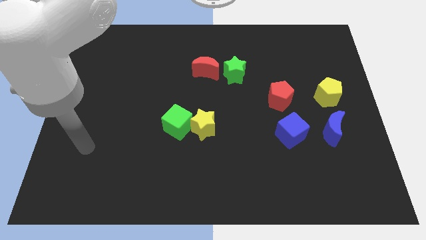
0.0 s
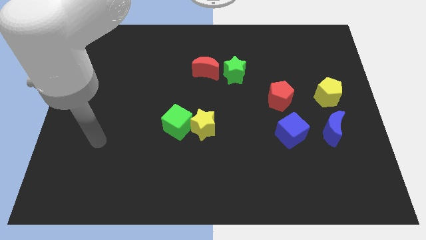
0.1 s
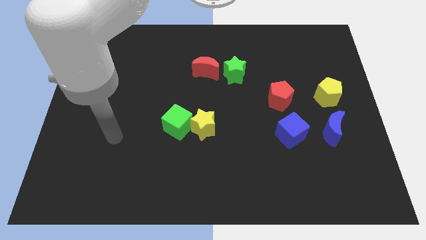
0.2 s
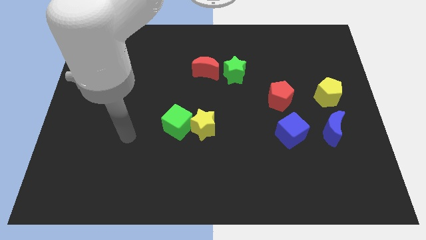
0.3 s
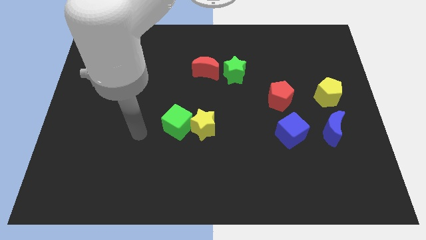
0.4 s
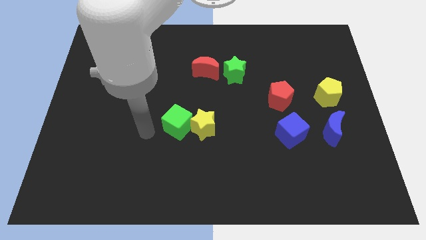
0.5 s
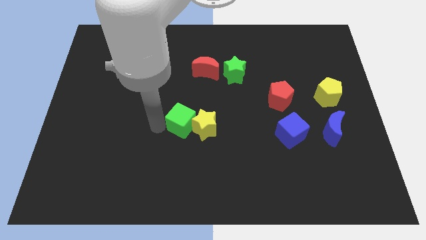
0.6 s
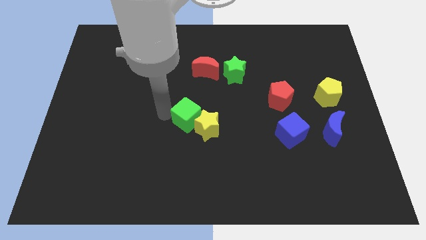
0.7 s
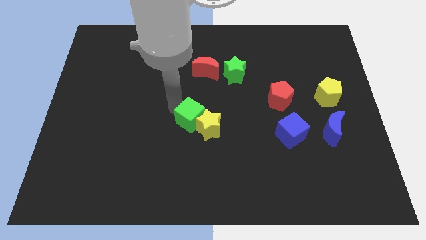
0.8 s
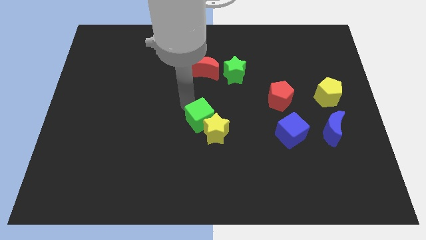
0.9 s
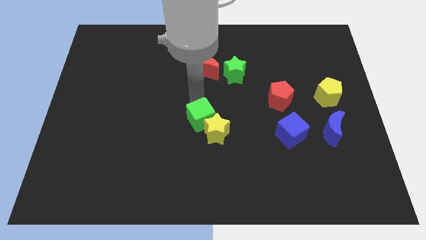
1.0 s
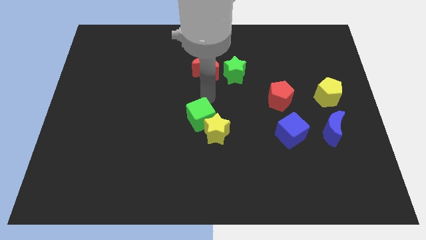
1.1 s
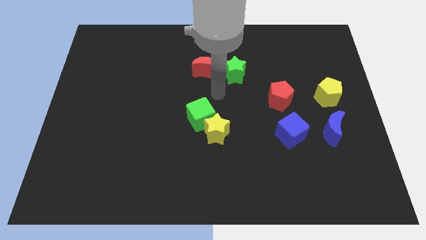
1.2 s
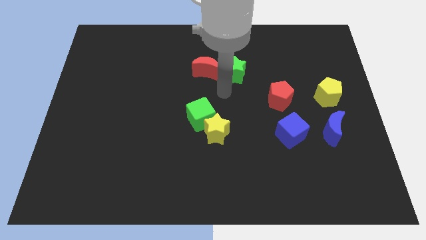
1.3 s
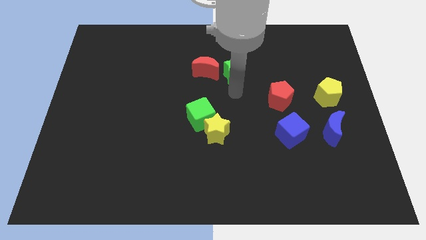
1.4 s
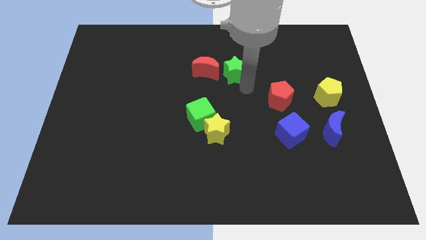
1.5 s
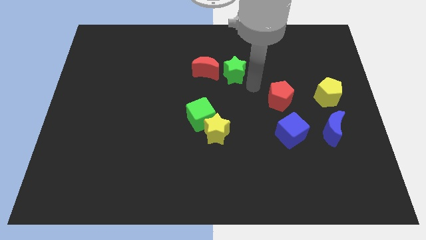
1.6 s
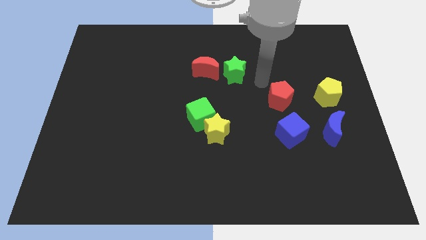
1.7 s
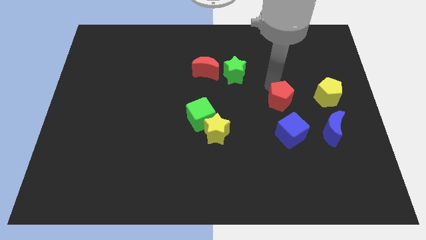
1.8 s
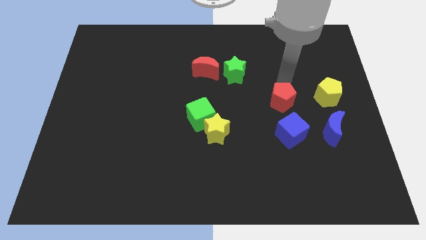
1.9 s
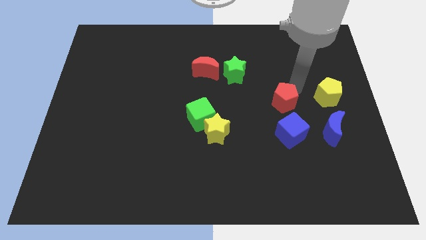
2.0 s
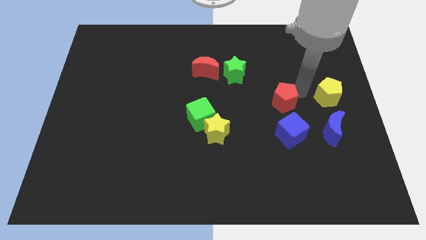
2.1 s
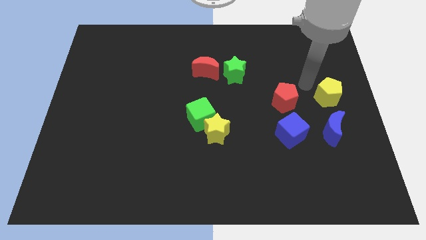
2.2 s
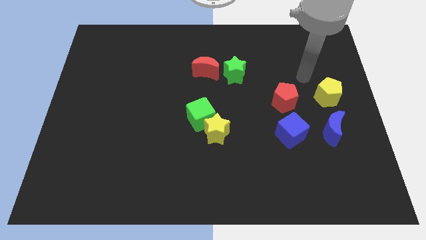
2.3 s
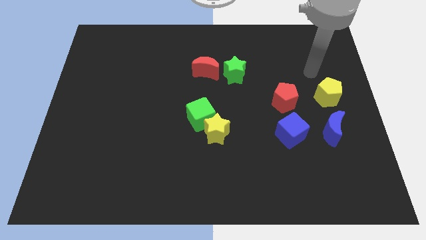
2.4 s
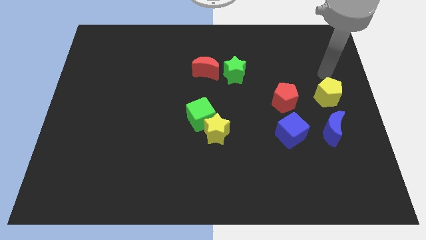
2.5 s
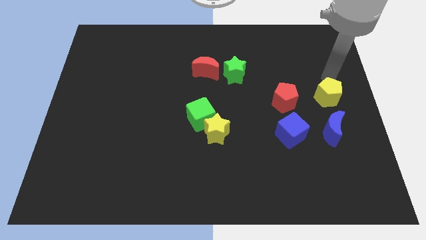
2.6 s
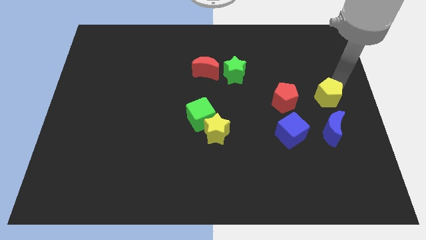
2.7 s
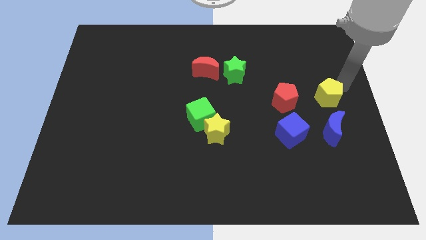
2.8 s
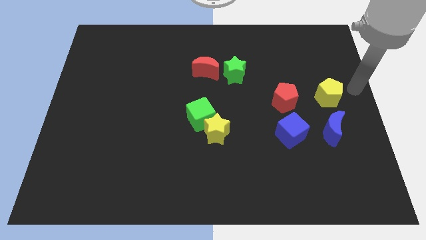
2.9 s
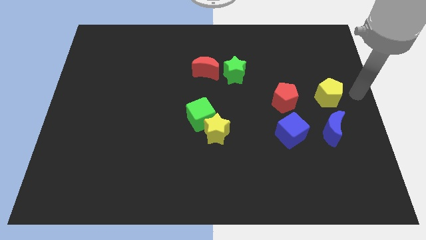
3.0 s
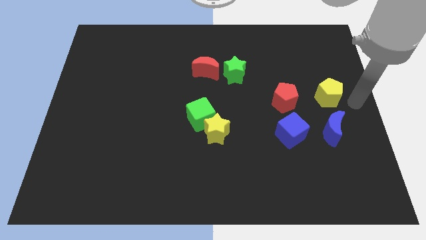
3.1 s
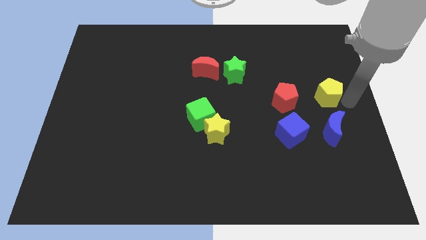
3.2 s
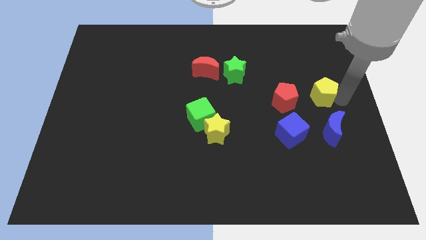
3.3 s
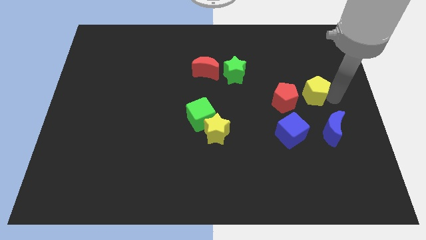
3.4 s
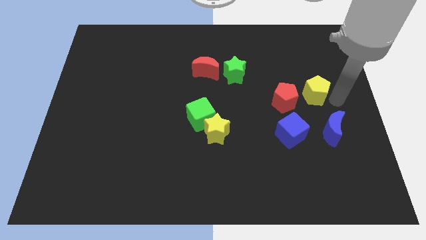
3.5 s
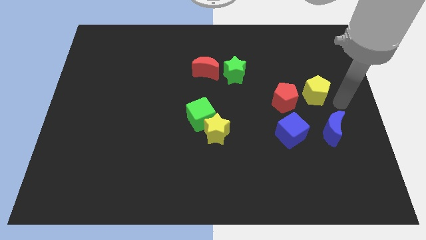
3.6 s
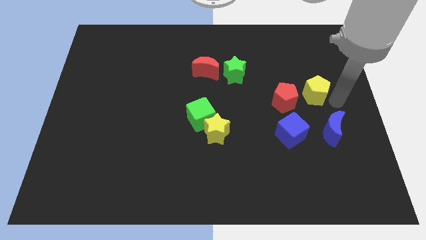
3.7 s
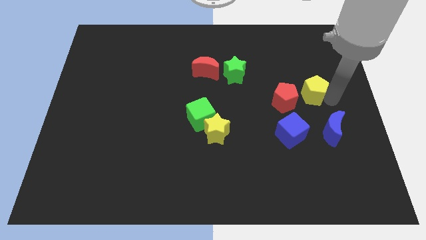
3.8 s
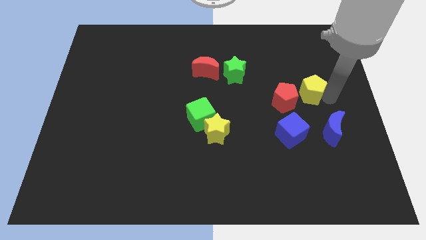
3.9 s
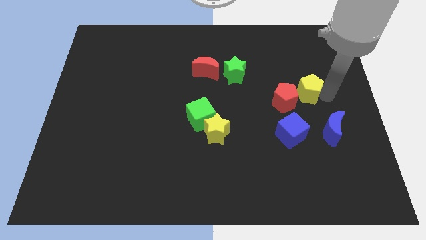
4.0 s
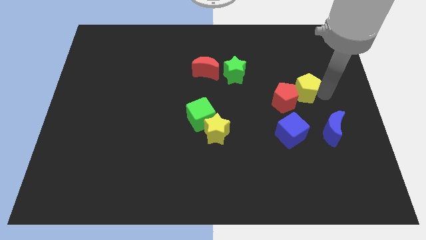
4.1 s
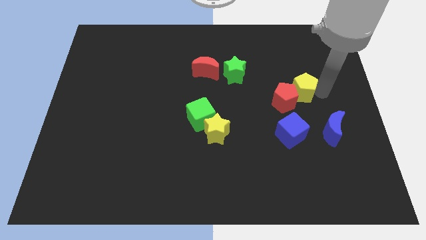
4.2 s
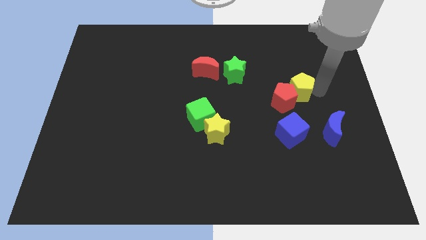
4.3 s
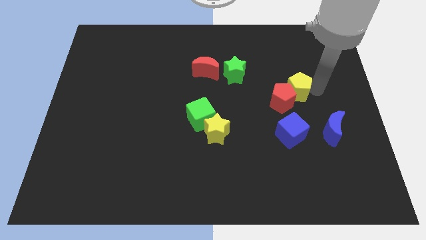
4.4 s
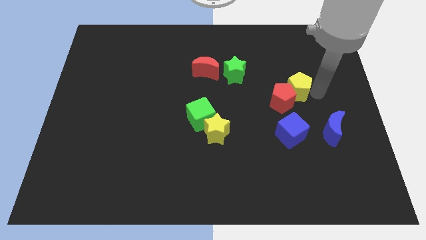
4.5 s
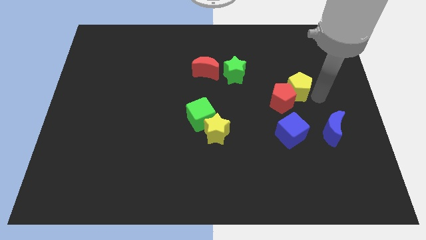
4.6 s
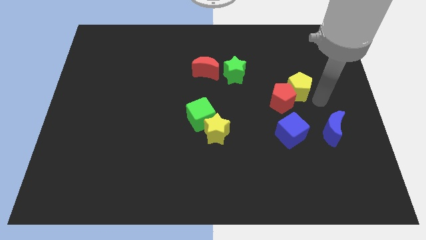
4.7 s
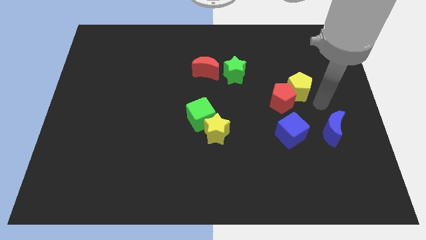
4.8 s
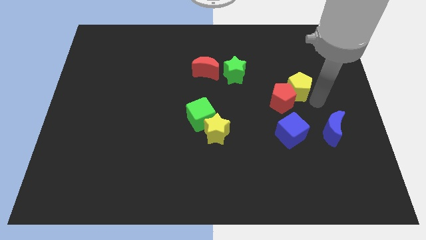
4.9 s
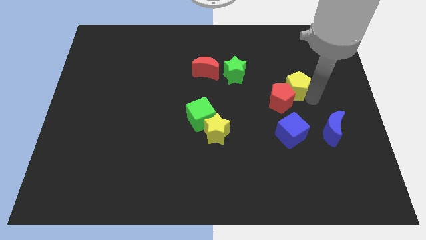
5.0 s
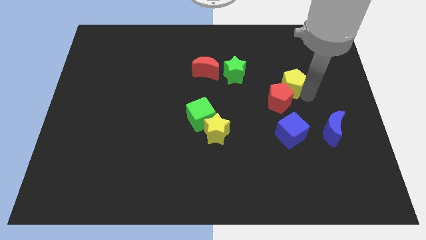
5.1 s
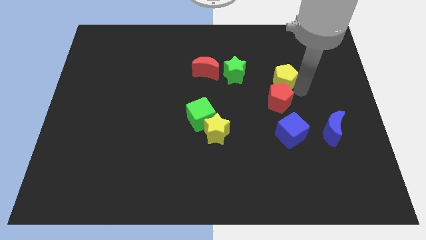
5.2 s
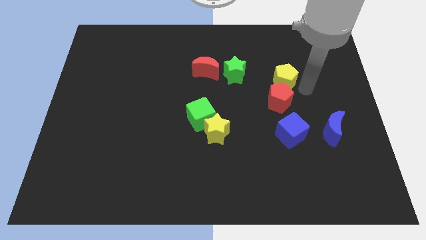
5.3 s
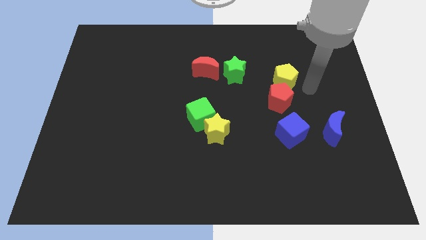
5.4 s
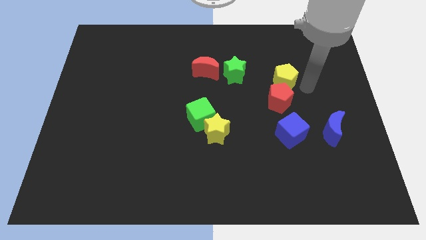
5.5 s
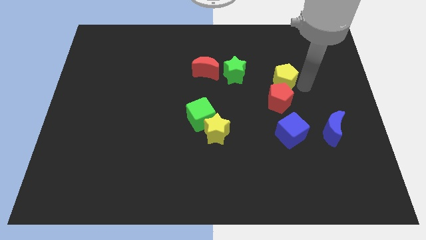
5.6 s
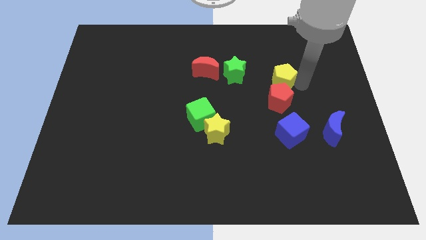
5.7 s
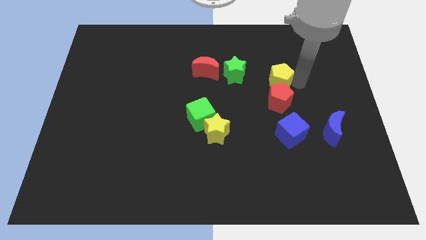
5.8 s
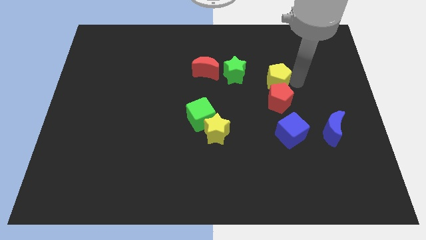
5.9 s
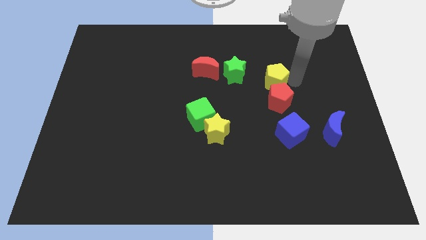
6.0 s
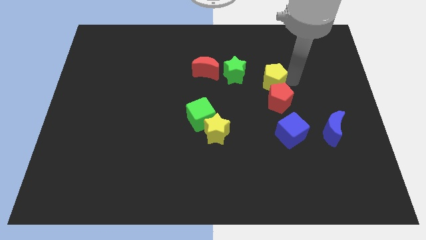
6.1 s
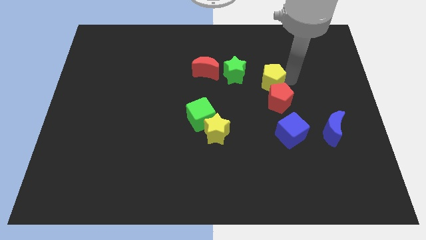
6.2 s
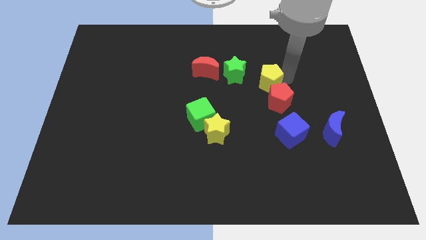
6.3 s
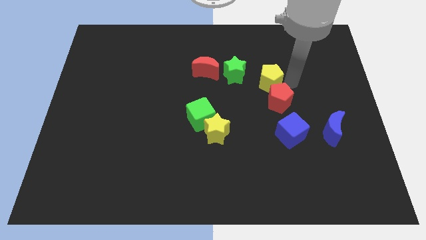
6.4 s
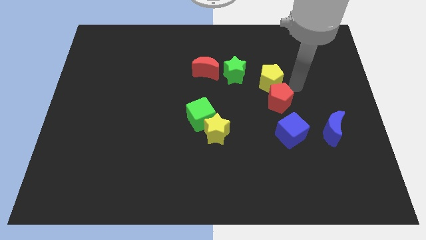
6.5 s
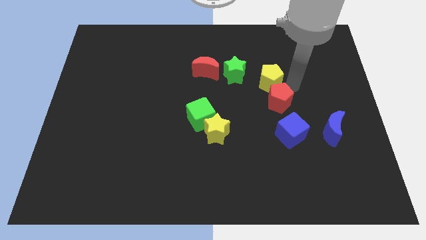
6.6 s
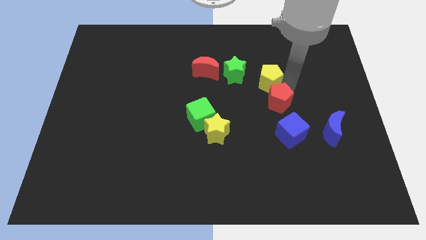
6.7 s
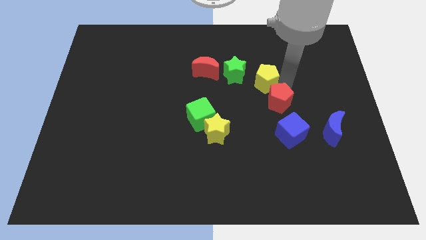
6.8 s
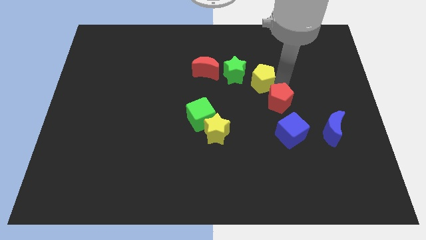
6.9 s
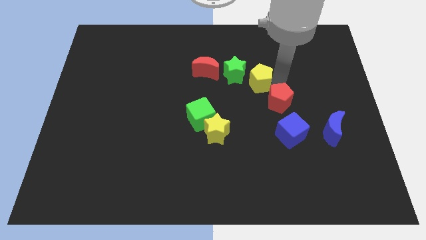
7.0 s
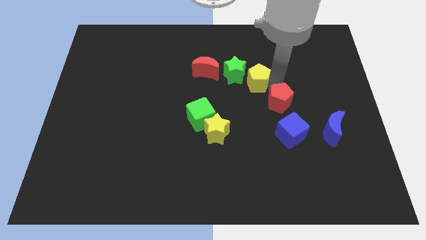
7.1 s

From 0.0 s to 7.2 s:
push the yellow pentagon next to the green star

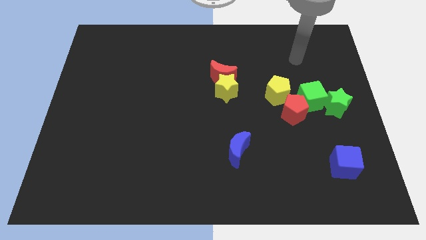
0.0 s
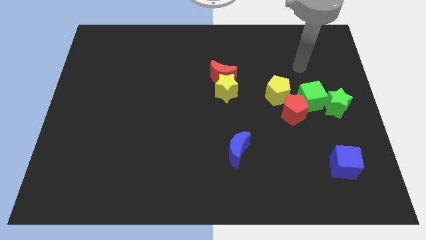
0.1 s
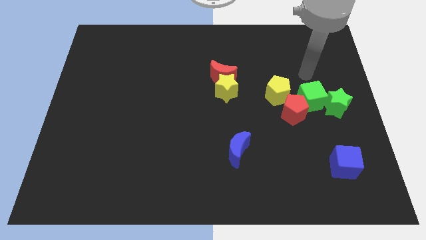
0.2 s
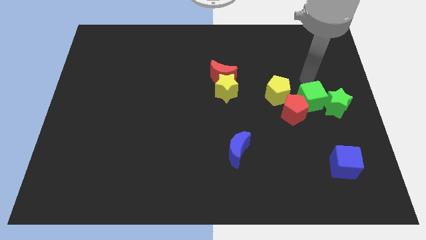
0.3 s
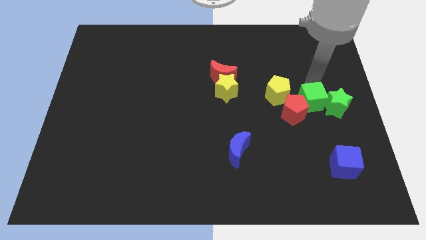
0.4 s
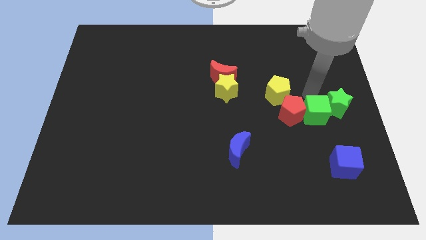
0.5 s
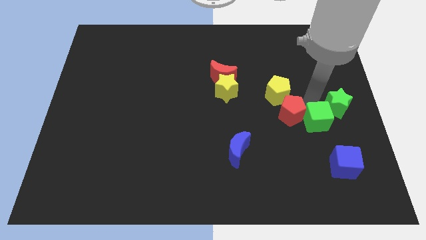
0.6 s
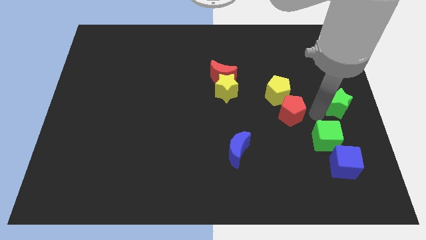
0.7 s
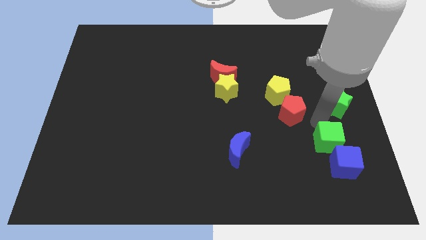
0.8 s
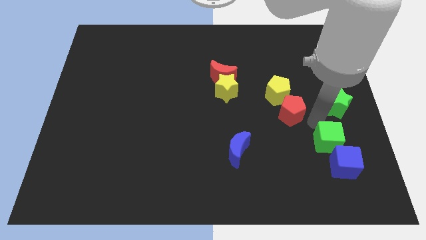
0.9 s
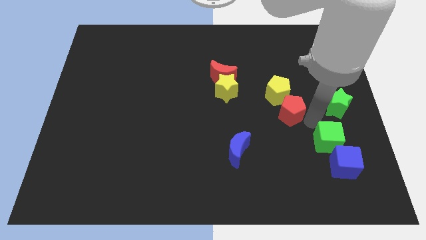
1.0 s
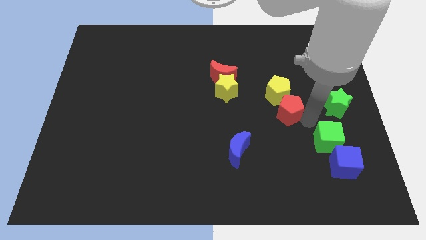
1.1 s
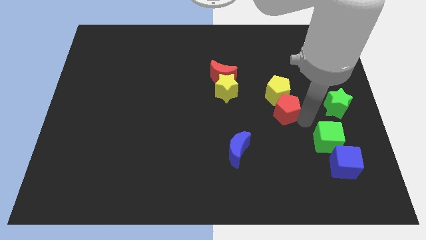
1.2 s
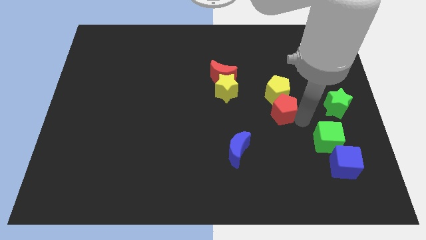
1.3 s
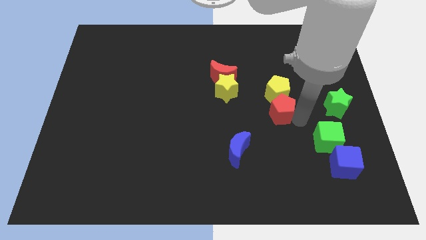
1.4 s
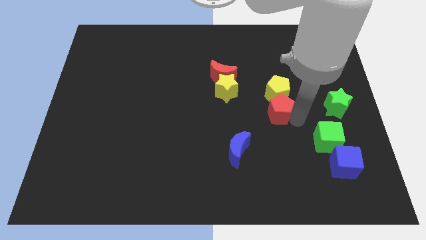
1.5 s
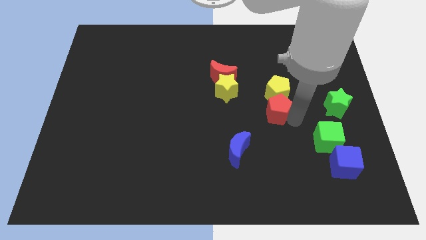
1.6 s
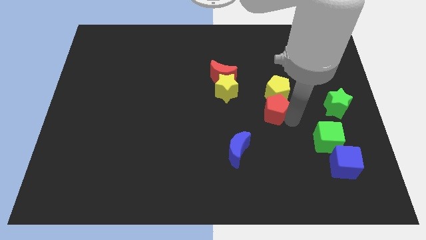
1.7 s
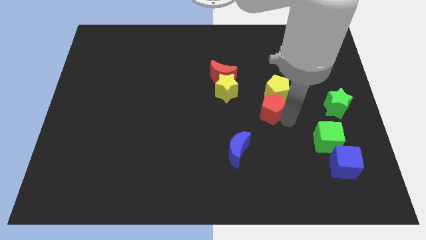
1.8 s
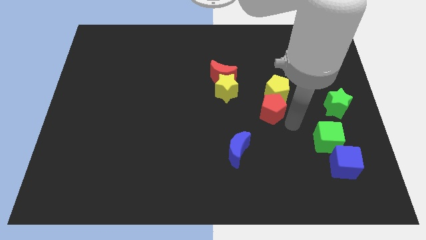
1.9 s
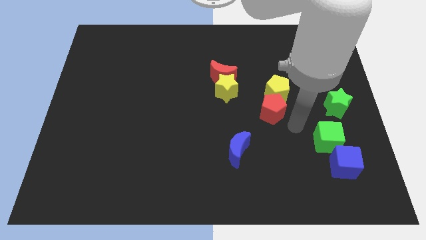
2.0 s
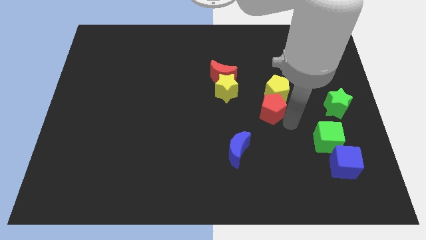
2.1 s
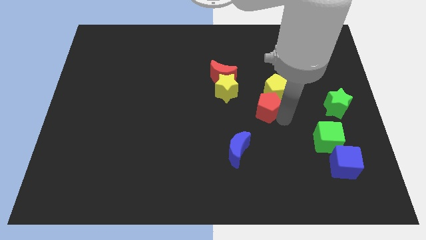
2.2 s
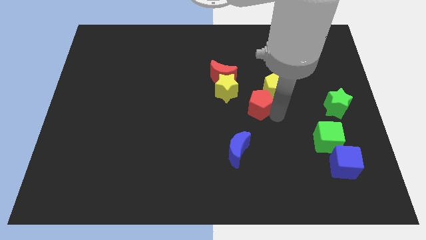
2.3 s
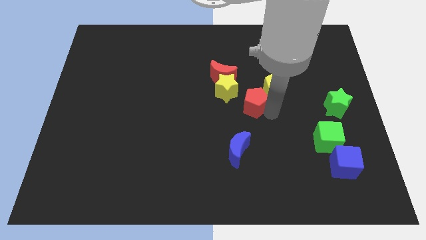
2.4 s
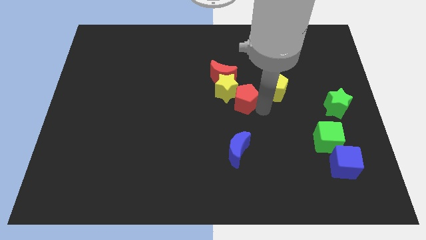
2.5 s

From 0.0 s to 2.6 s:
put the red pentagon to the yellow star
